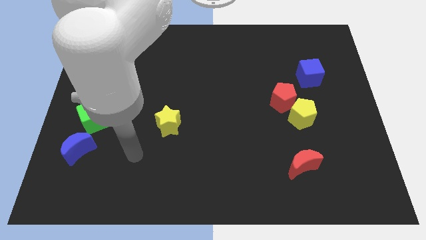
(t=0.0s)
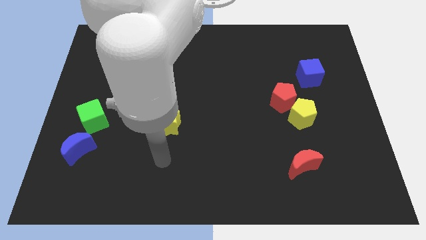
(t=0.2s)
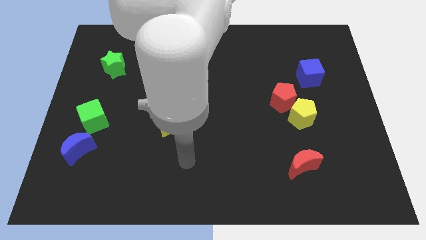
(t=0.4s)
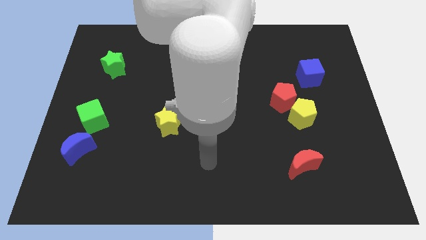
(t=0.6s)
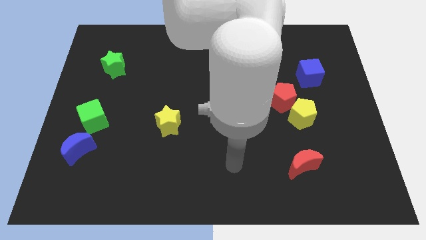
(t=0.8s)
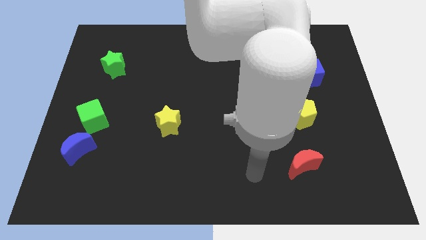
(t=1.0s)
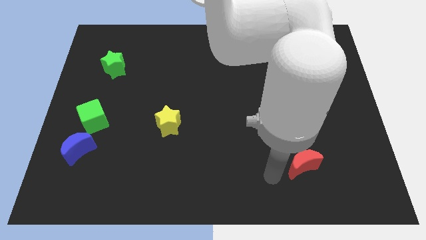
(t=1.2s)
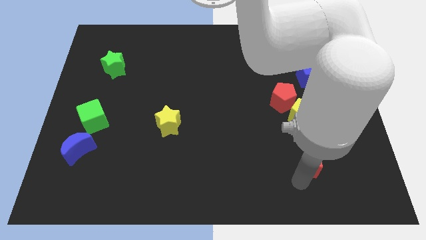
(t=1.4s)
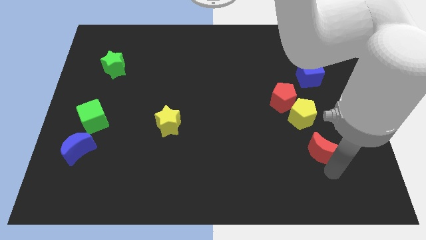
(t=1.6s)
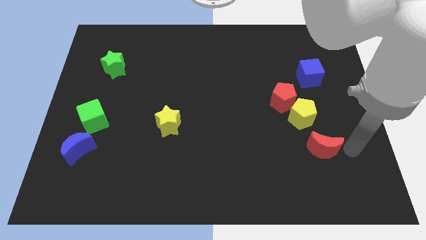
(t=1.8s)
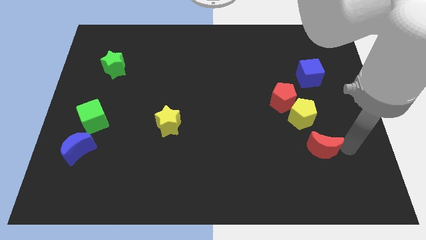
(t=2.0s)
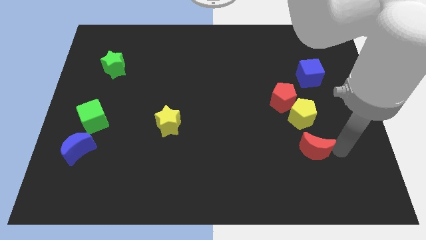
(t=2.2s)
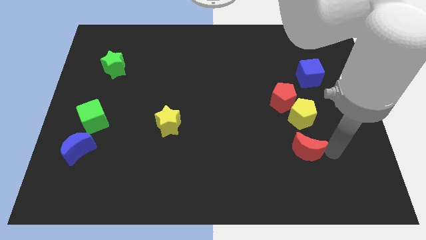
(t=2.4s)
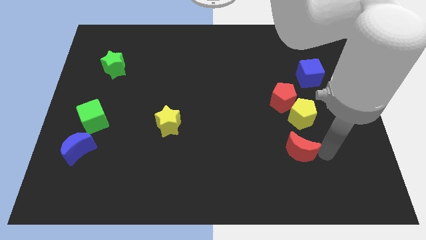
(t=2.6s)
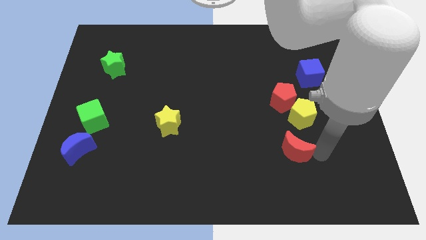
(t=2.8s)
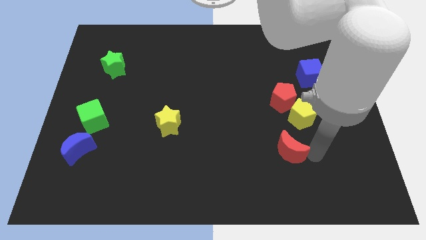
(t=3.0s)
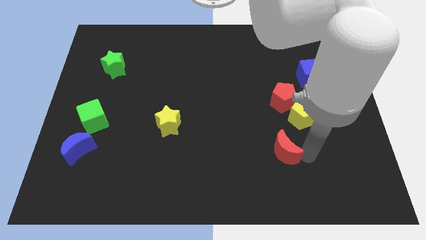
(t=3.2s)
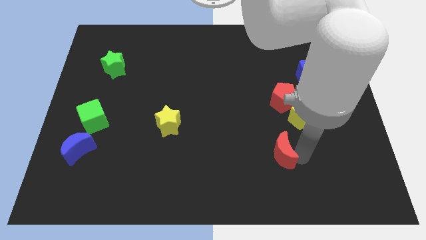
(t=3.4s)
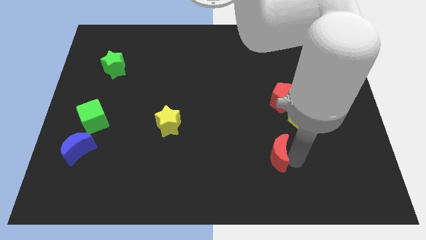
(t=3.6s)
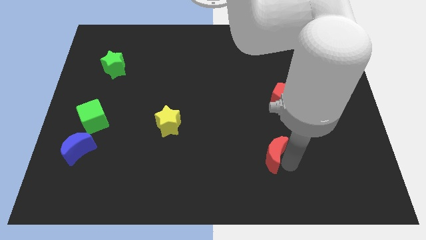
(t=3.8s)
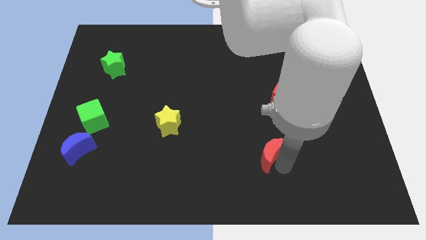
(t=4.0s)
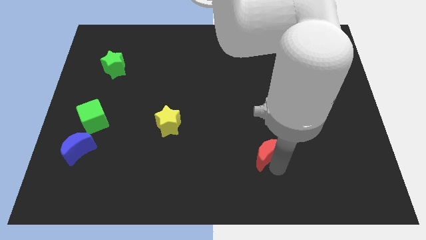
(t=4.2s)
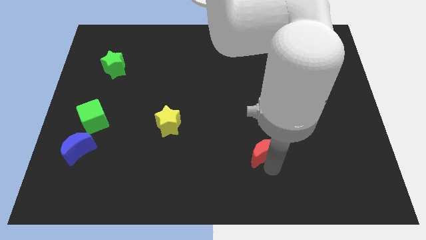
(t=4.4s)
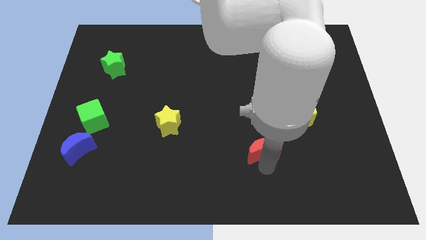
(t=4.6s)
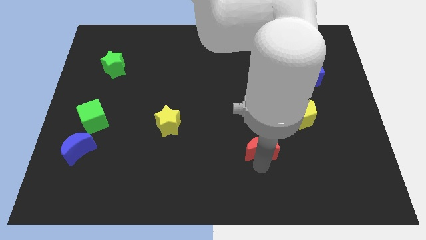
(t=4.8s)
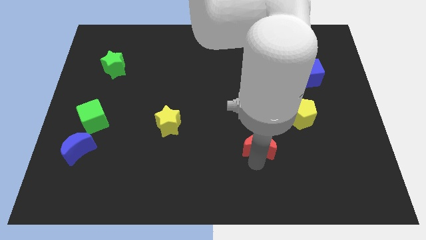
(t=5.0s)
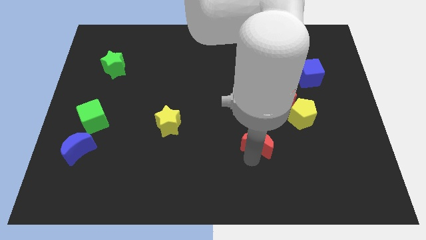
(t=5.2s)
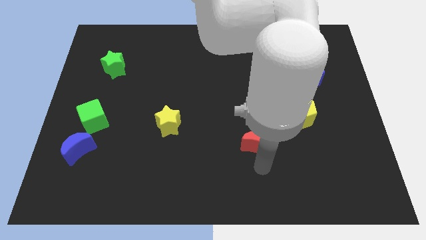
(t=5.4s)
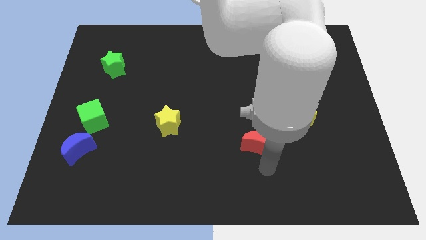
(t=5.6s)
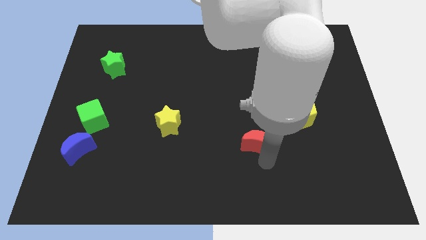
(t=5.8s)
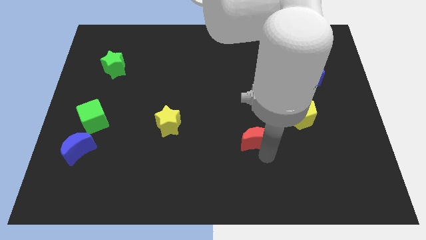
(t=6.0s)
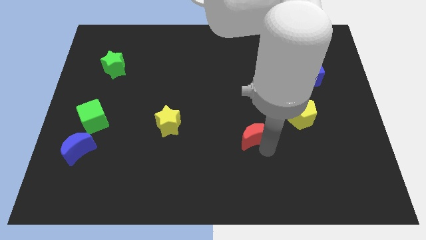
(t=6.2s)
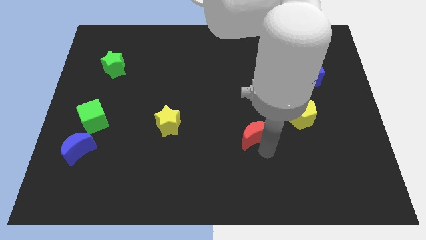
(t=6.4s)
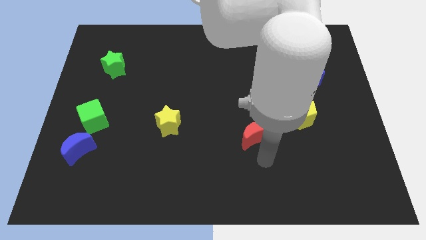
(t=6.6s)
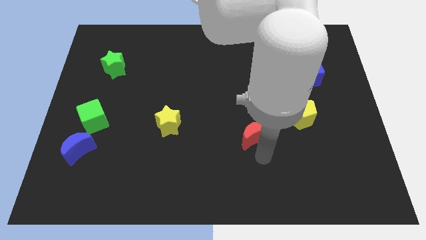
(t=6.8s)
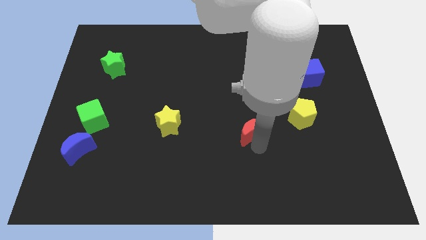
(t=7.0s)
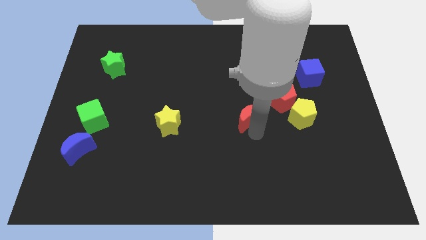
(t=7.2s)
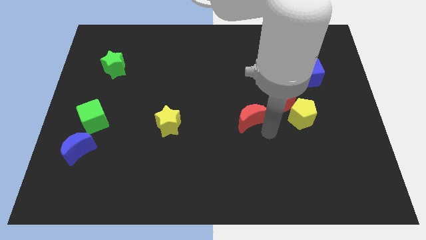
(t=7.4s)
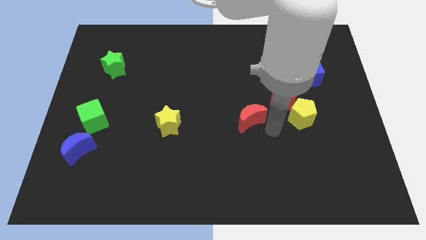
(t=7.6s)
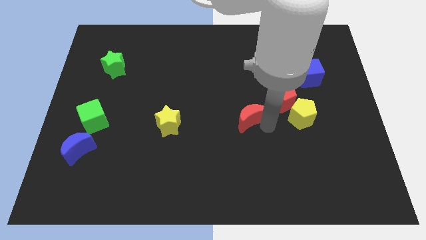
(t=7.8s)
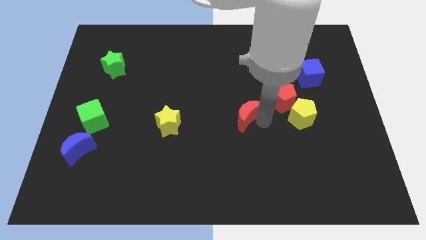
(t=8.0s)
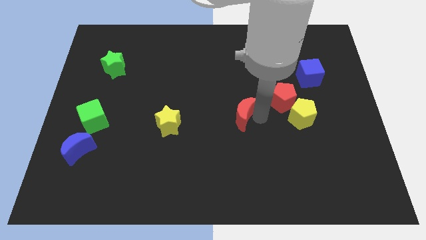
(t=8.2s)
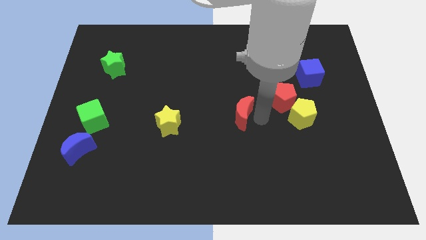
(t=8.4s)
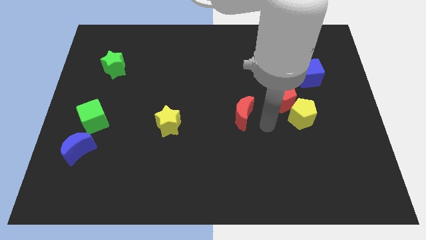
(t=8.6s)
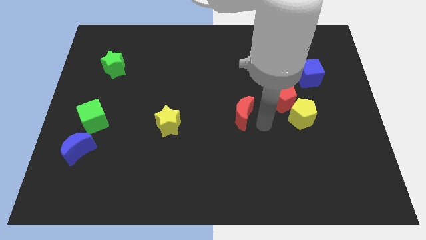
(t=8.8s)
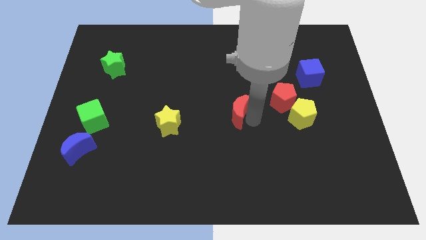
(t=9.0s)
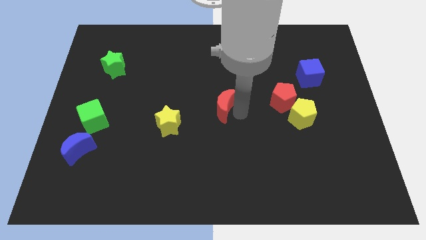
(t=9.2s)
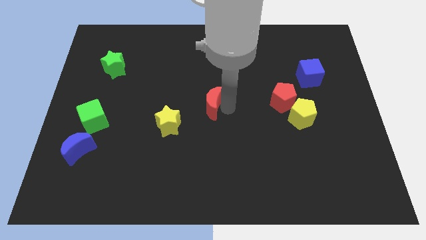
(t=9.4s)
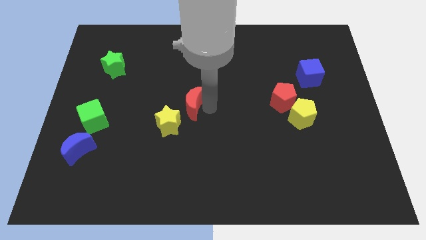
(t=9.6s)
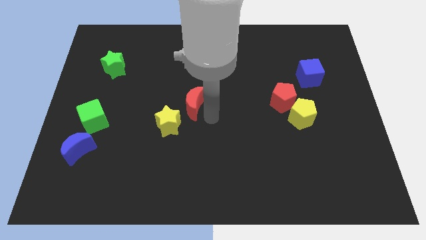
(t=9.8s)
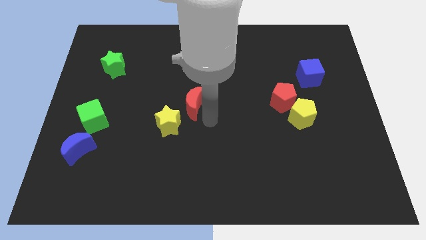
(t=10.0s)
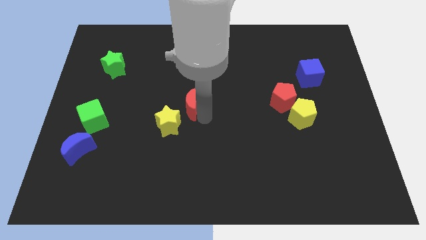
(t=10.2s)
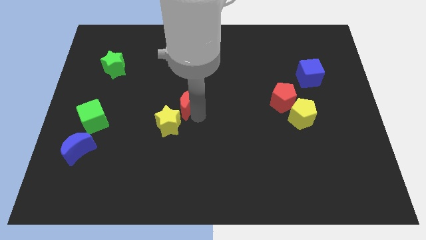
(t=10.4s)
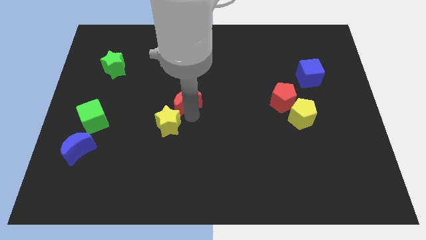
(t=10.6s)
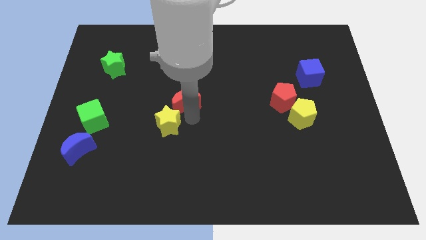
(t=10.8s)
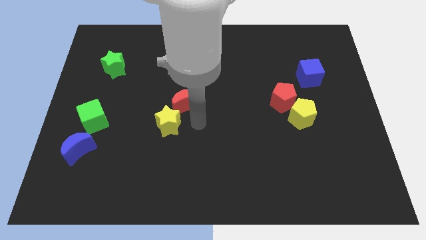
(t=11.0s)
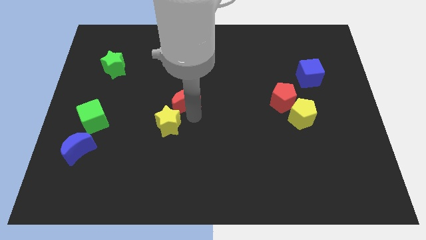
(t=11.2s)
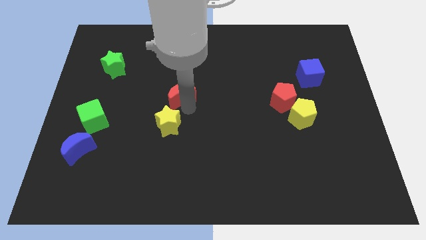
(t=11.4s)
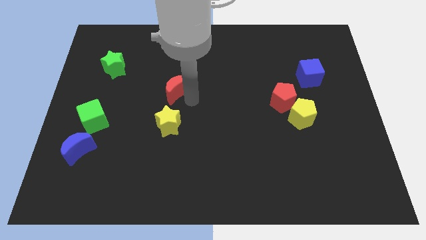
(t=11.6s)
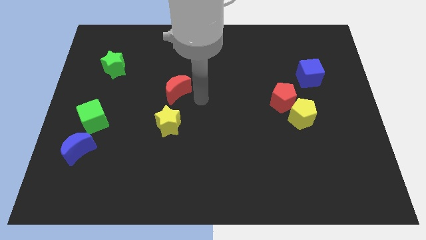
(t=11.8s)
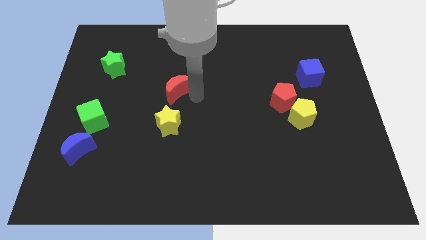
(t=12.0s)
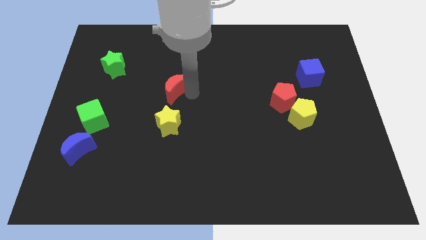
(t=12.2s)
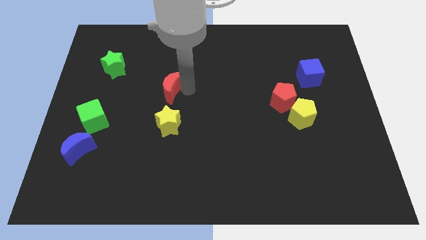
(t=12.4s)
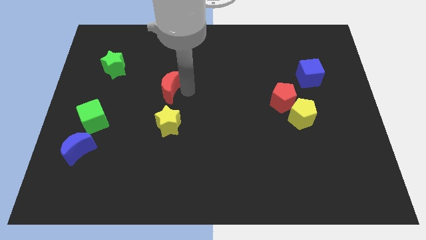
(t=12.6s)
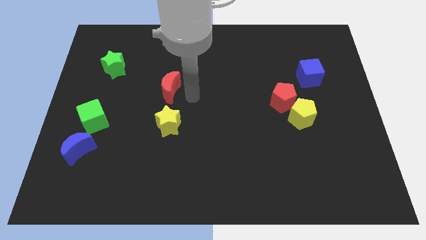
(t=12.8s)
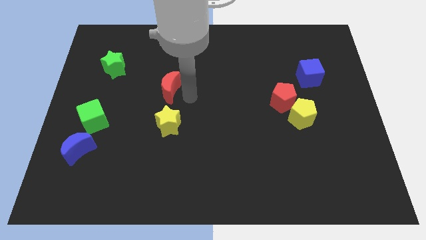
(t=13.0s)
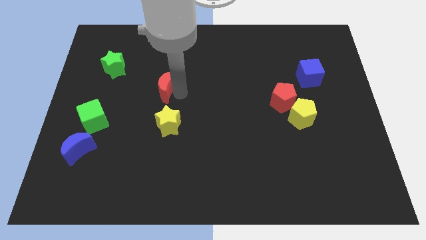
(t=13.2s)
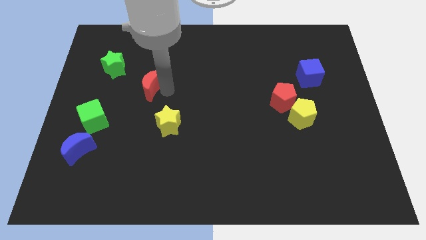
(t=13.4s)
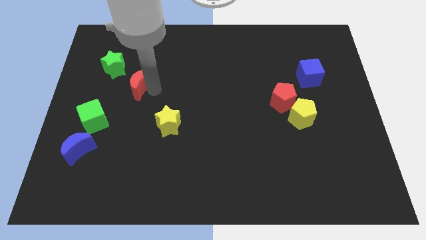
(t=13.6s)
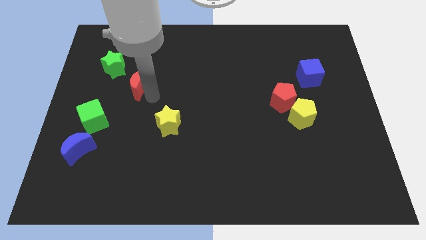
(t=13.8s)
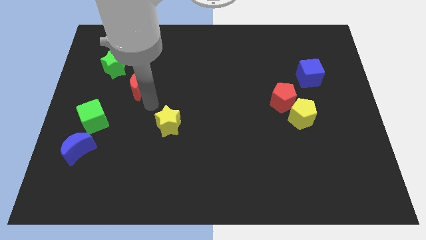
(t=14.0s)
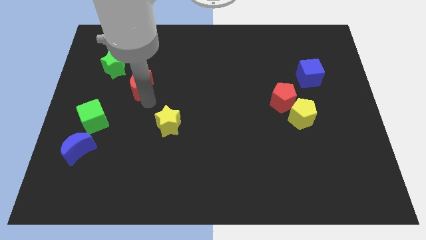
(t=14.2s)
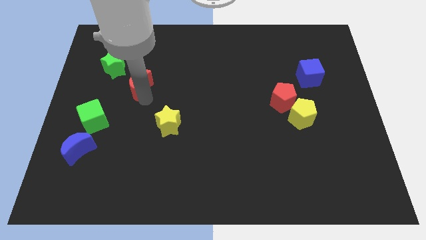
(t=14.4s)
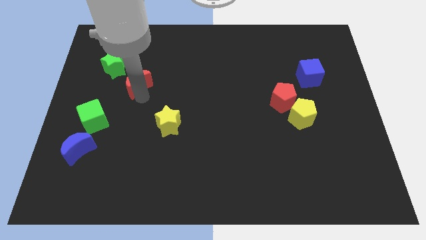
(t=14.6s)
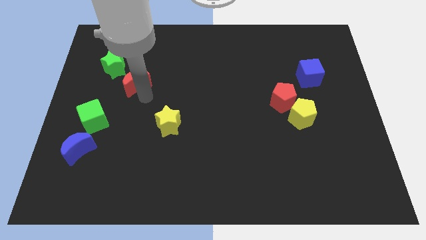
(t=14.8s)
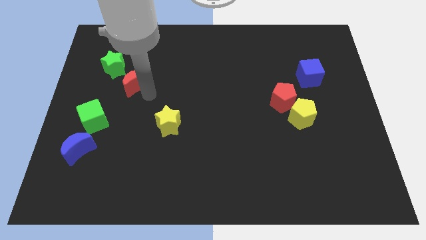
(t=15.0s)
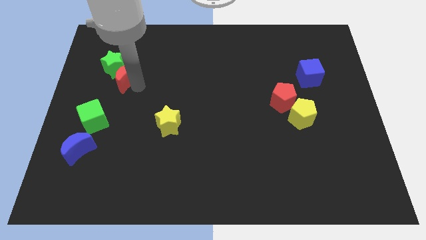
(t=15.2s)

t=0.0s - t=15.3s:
push the red moon towards the green star
